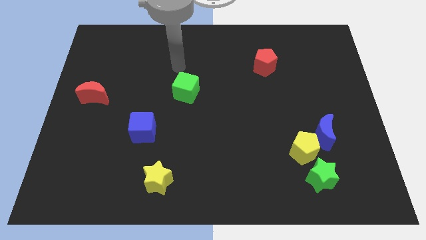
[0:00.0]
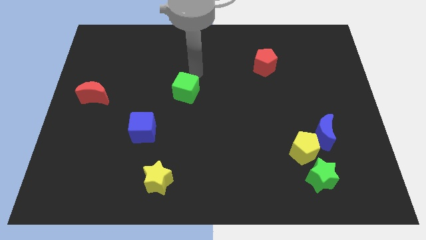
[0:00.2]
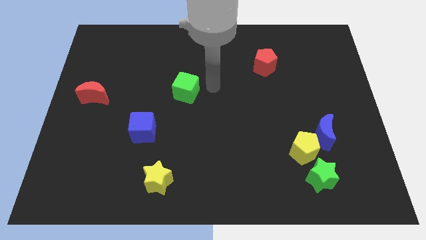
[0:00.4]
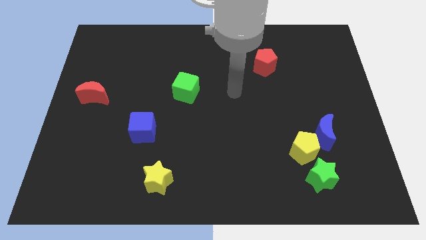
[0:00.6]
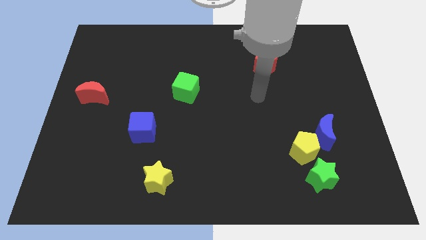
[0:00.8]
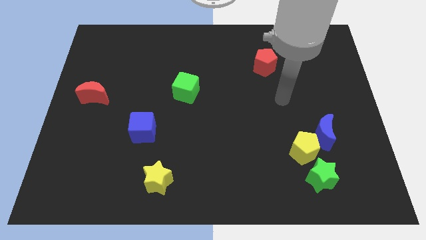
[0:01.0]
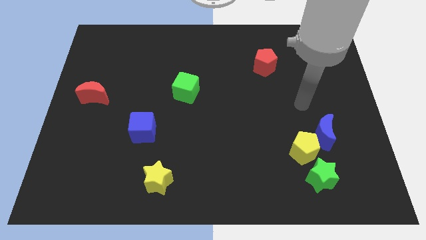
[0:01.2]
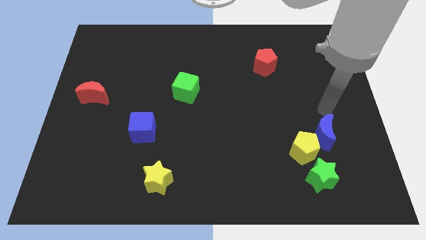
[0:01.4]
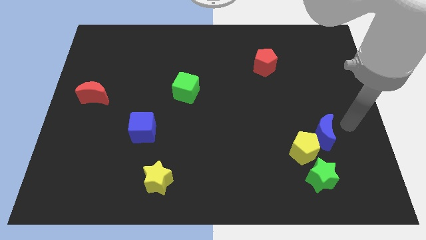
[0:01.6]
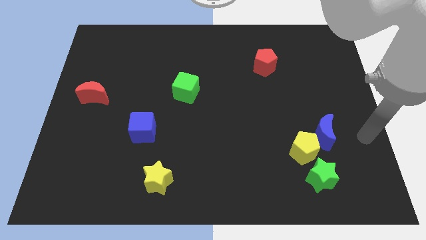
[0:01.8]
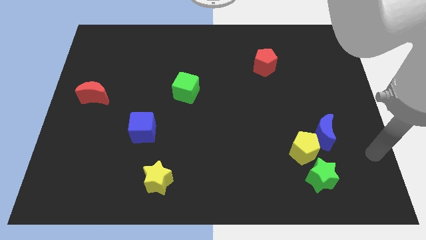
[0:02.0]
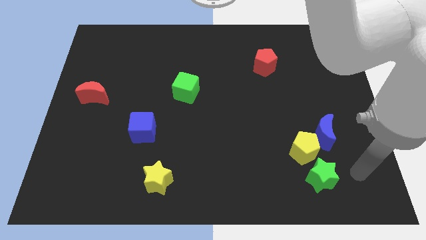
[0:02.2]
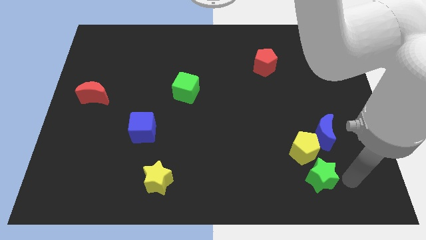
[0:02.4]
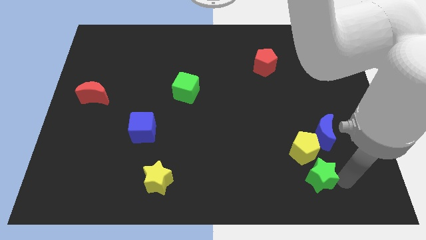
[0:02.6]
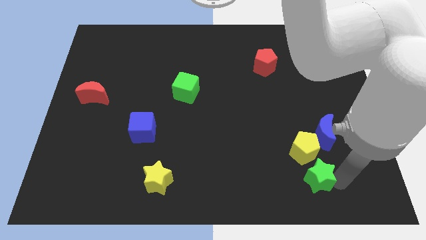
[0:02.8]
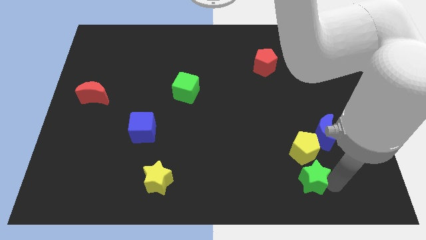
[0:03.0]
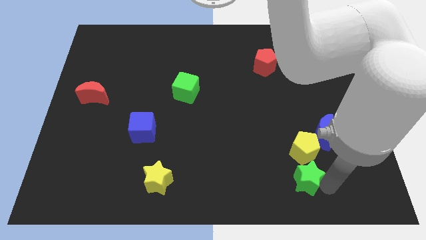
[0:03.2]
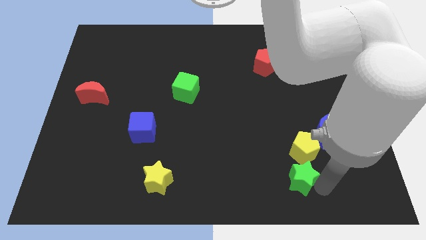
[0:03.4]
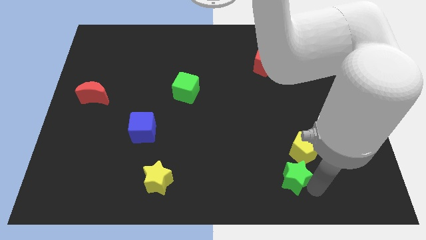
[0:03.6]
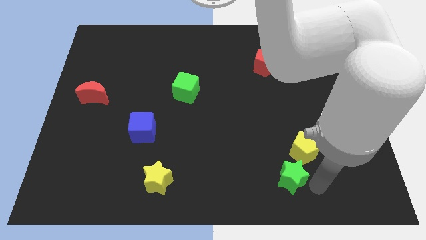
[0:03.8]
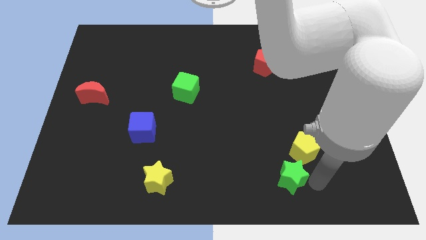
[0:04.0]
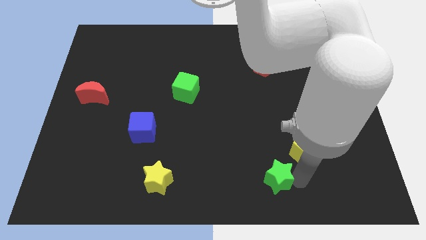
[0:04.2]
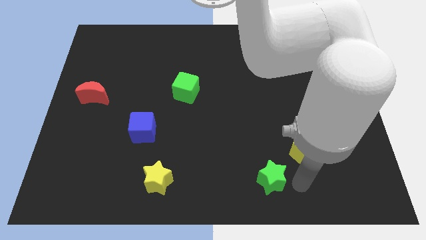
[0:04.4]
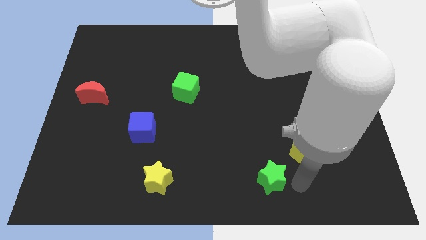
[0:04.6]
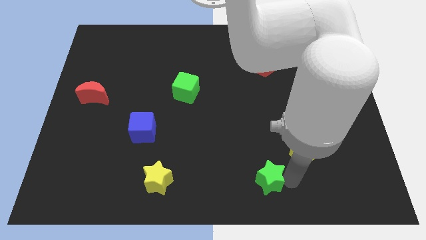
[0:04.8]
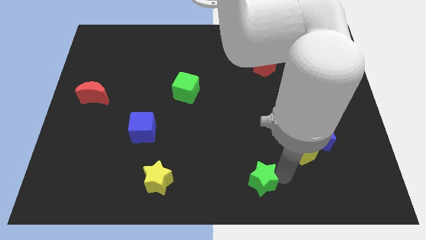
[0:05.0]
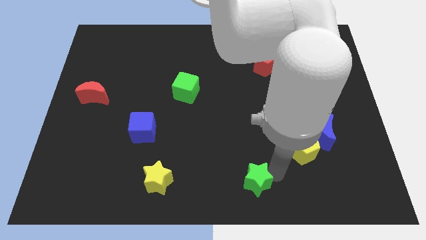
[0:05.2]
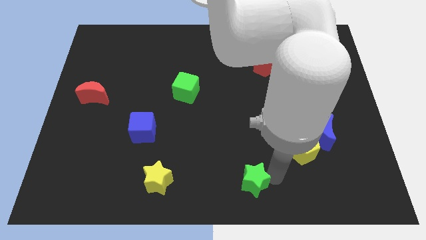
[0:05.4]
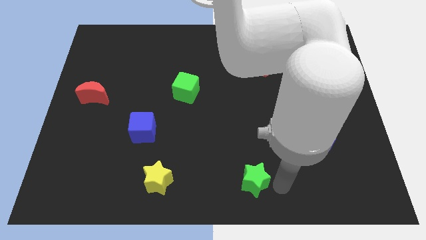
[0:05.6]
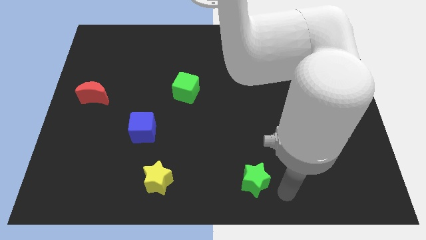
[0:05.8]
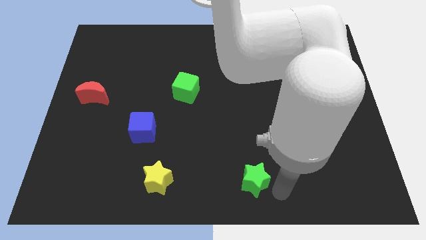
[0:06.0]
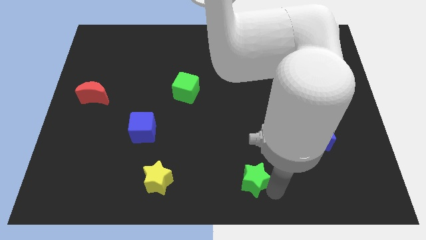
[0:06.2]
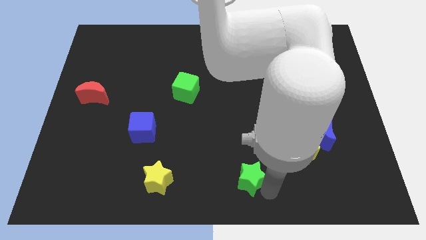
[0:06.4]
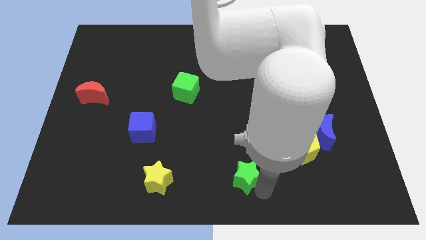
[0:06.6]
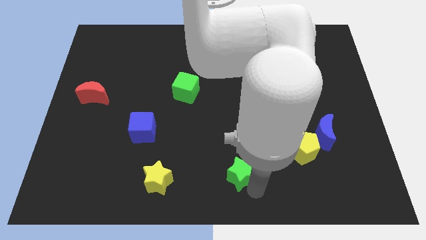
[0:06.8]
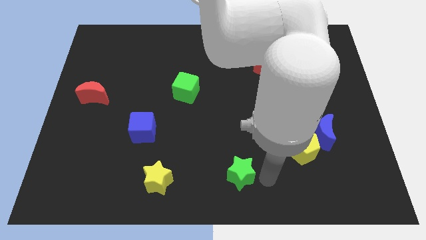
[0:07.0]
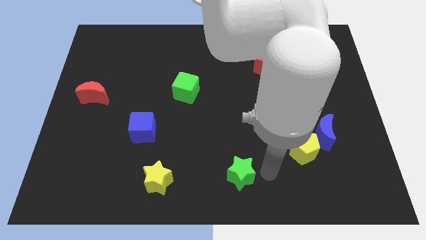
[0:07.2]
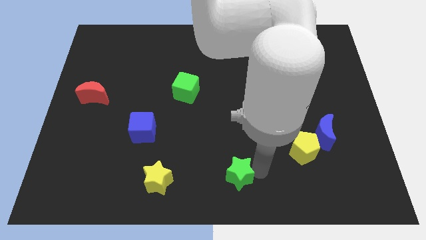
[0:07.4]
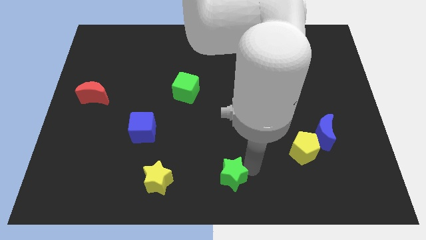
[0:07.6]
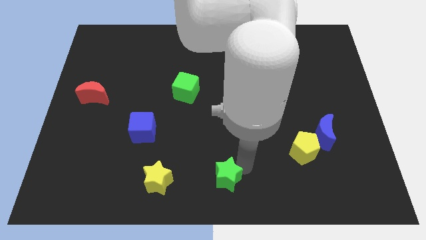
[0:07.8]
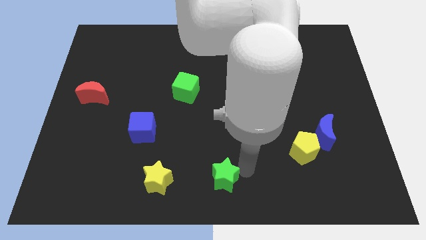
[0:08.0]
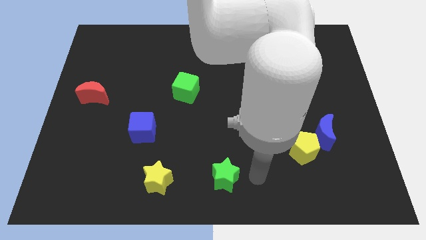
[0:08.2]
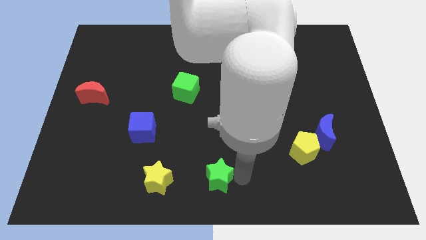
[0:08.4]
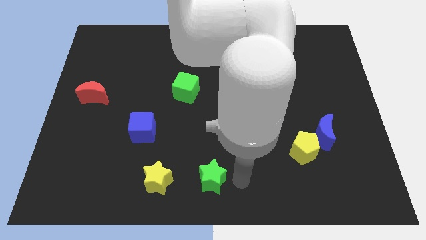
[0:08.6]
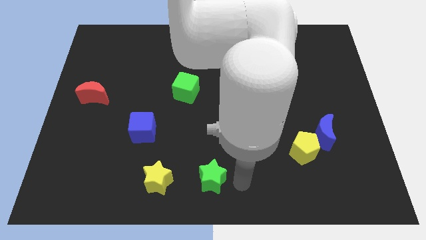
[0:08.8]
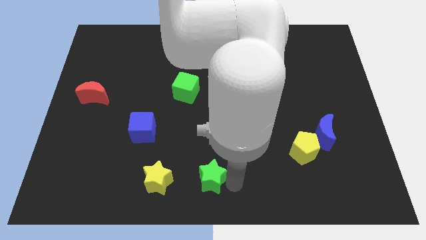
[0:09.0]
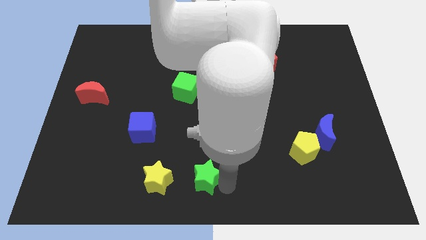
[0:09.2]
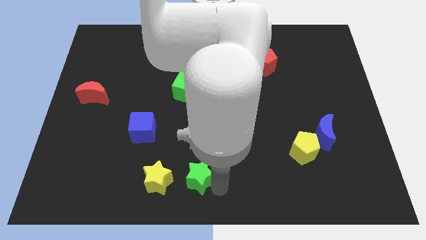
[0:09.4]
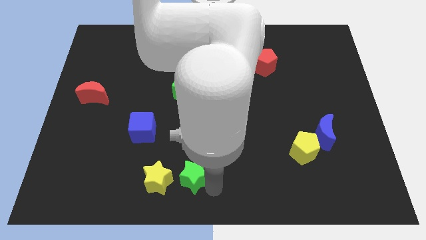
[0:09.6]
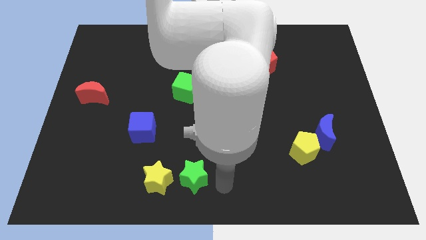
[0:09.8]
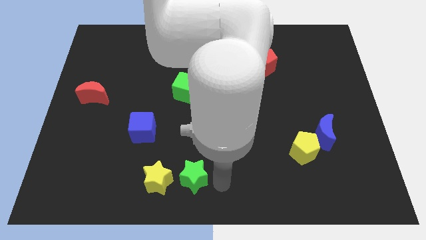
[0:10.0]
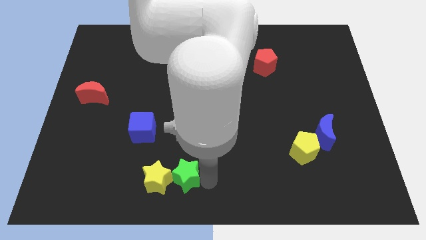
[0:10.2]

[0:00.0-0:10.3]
move the green star to the yellow star

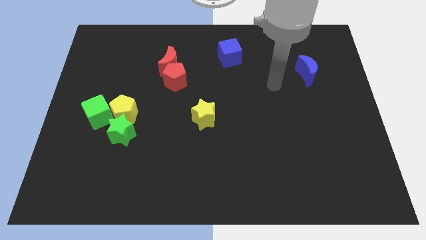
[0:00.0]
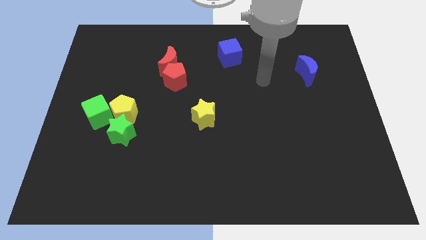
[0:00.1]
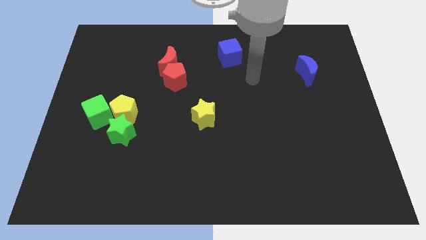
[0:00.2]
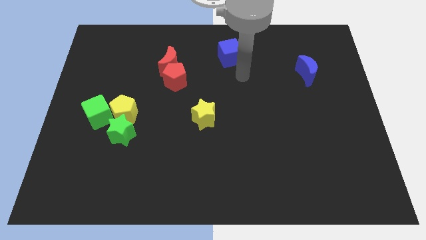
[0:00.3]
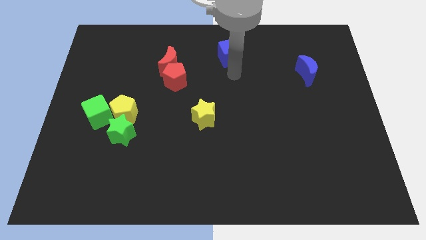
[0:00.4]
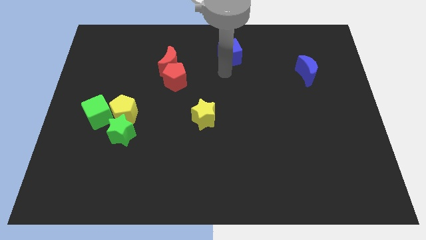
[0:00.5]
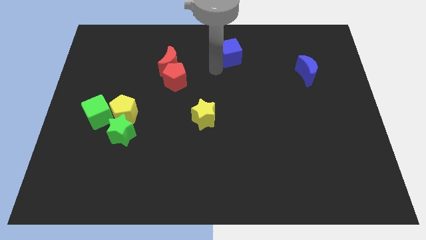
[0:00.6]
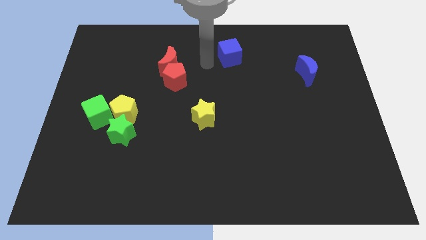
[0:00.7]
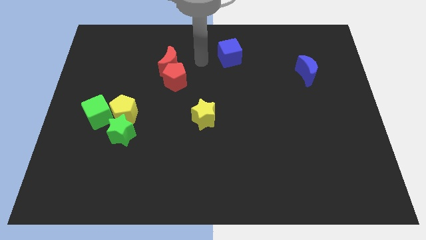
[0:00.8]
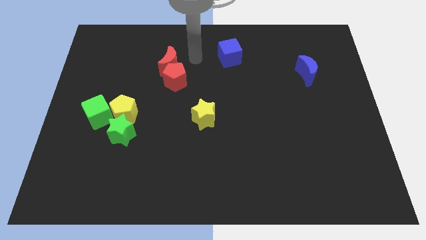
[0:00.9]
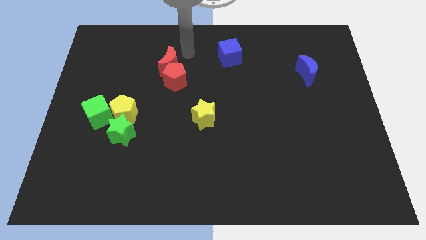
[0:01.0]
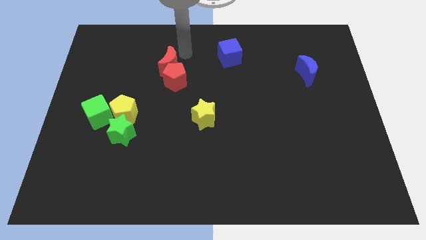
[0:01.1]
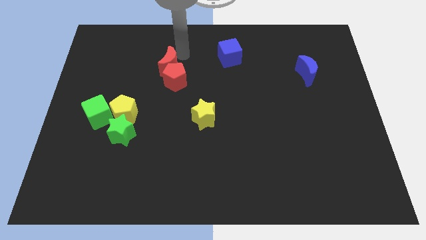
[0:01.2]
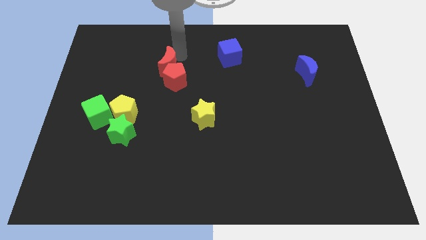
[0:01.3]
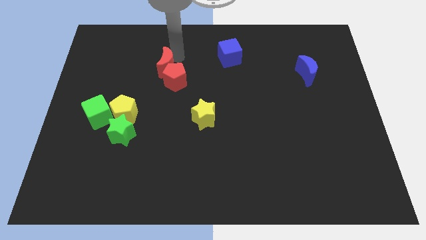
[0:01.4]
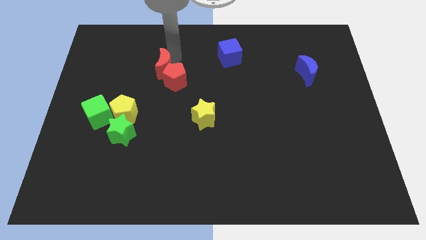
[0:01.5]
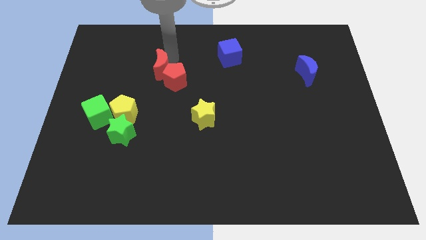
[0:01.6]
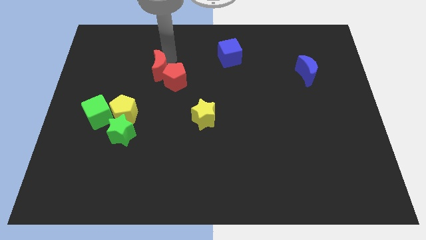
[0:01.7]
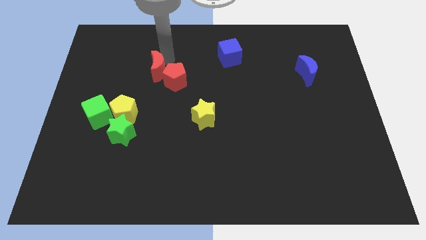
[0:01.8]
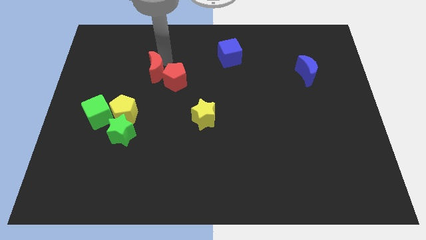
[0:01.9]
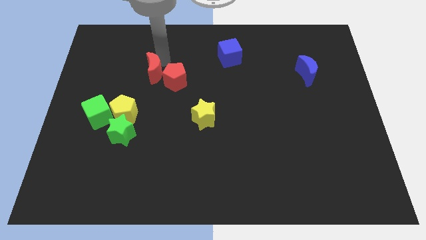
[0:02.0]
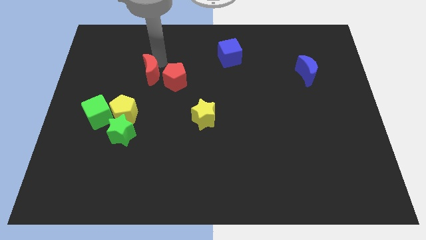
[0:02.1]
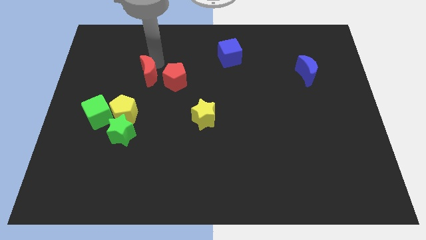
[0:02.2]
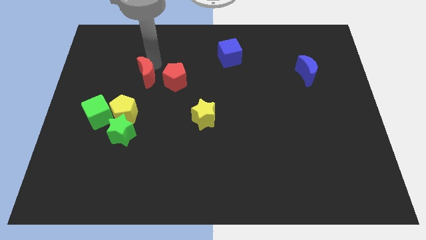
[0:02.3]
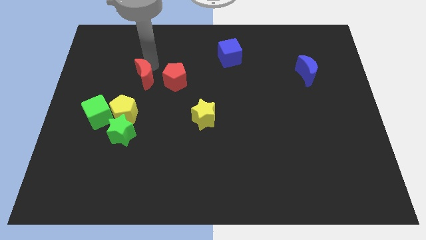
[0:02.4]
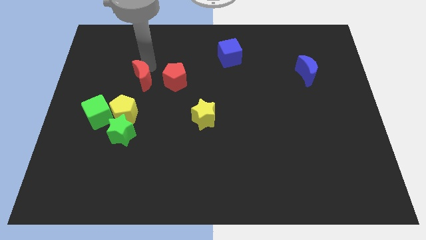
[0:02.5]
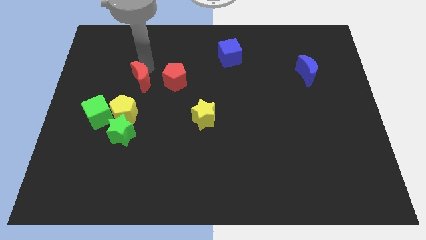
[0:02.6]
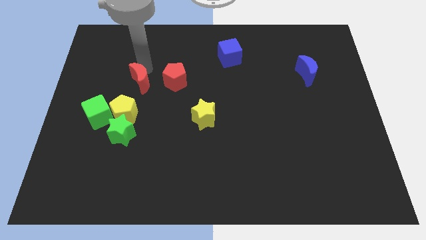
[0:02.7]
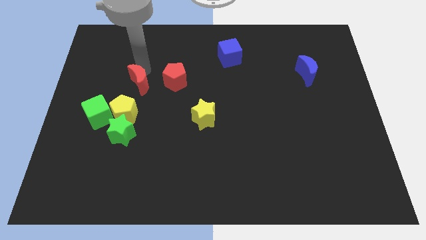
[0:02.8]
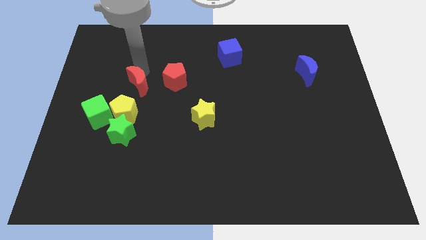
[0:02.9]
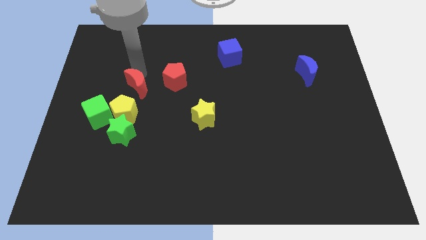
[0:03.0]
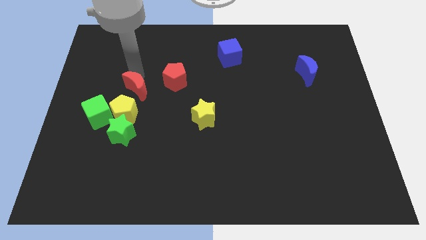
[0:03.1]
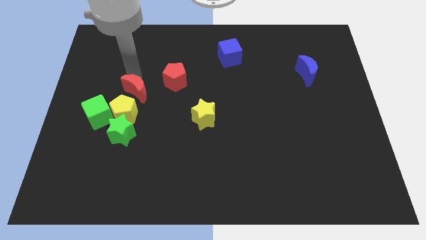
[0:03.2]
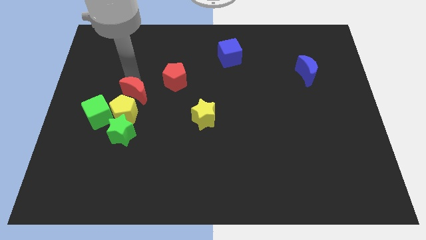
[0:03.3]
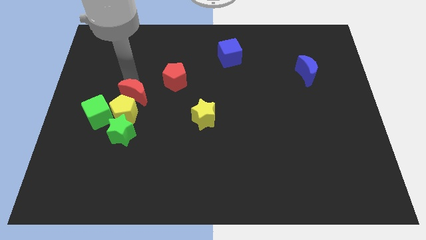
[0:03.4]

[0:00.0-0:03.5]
push the red moon towards the yellow pentagon
